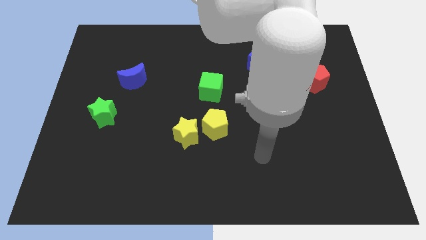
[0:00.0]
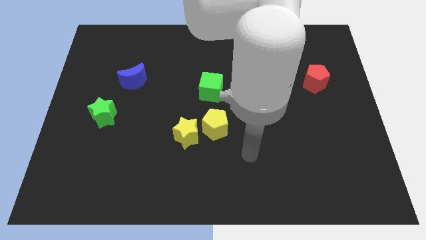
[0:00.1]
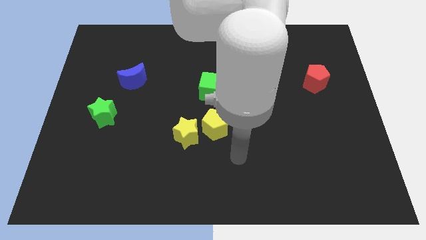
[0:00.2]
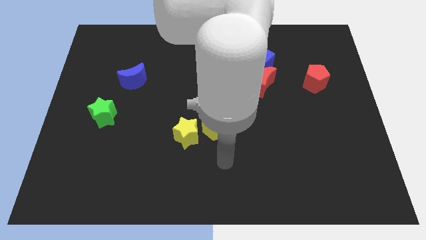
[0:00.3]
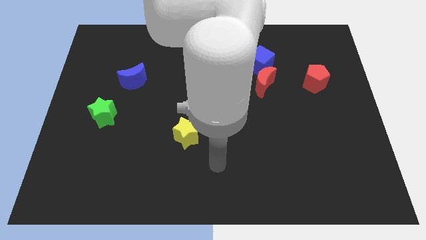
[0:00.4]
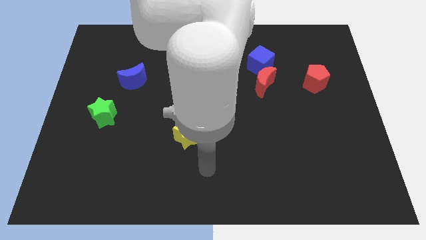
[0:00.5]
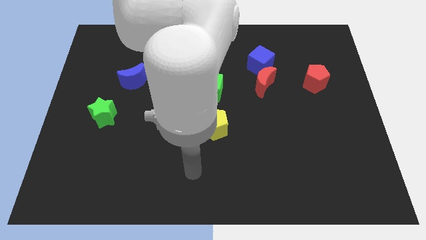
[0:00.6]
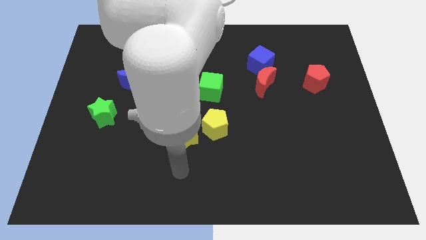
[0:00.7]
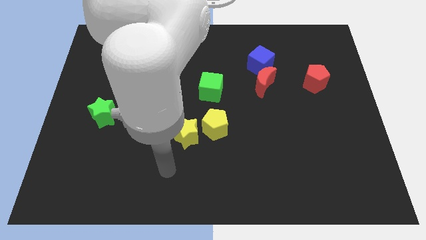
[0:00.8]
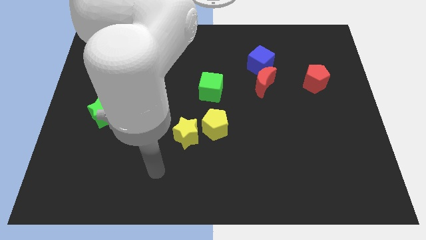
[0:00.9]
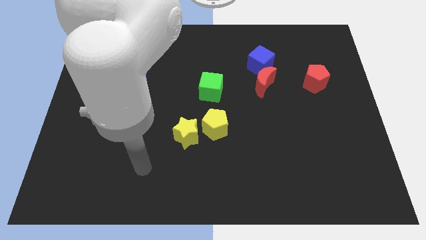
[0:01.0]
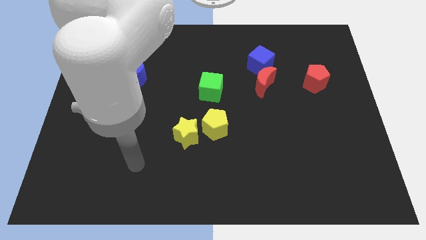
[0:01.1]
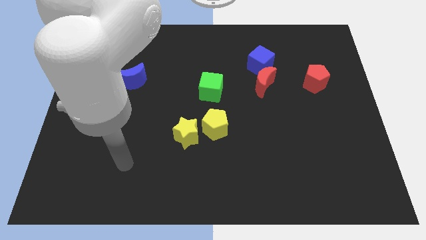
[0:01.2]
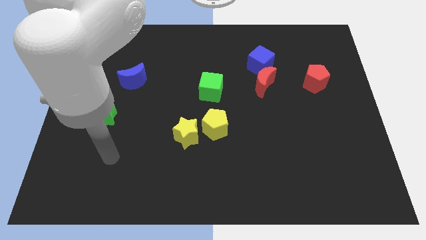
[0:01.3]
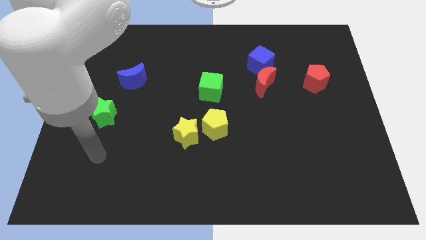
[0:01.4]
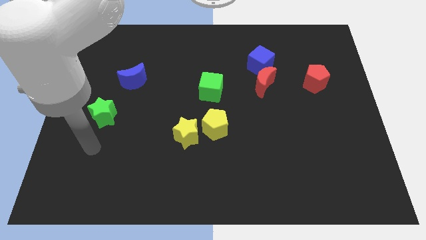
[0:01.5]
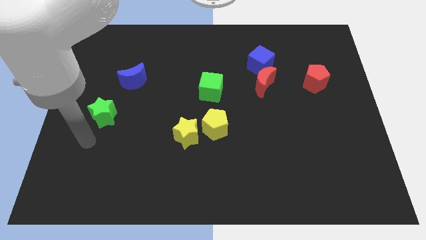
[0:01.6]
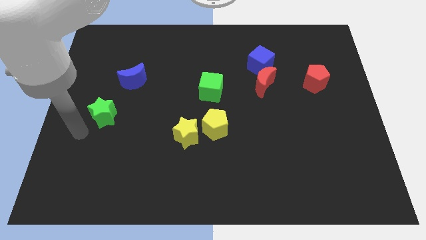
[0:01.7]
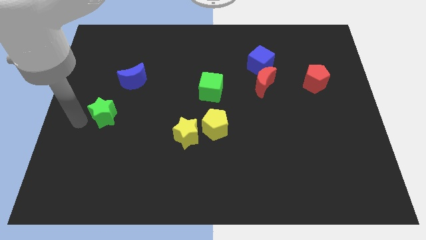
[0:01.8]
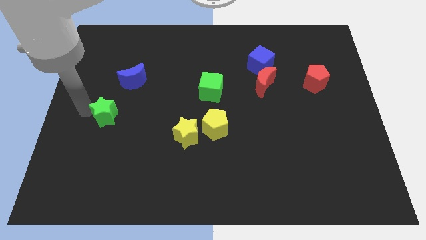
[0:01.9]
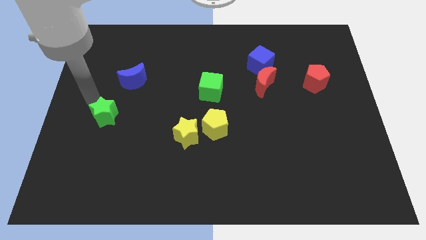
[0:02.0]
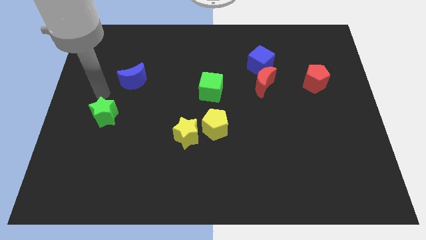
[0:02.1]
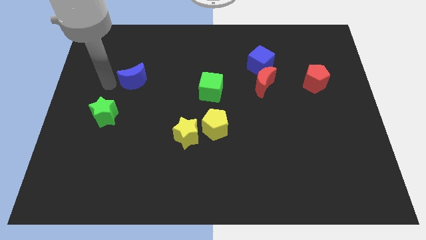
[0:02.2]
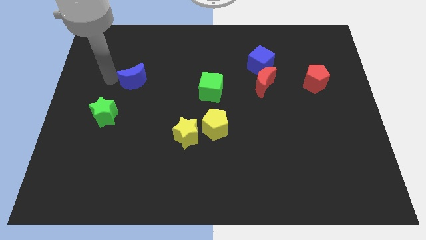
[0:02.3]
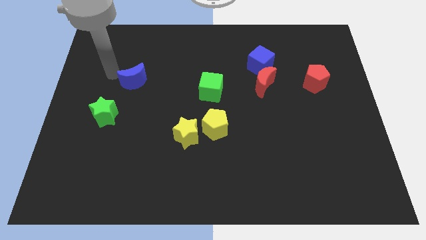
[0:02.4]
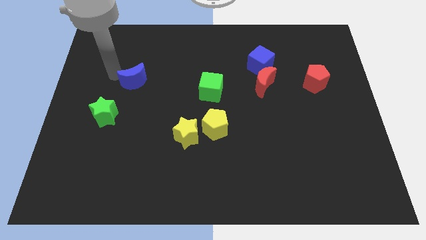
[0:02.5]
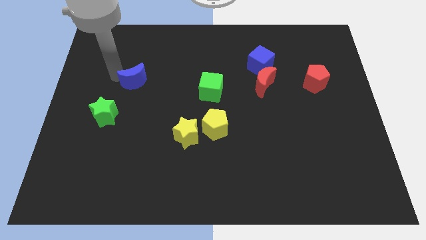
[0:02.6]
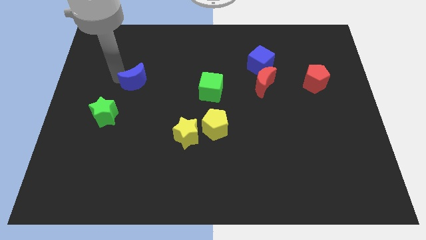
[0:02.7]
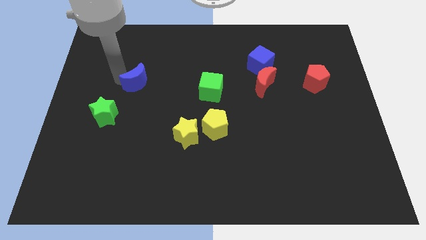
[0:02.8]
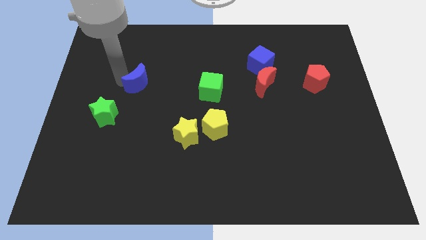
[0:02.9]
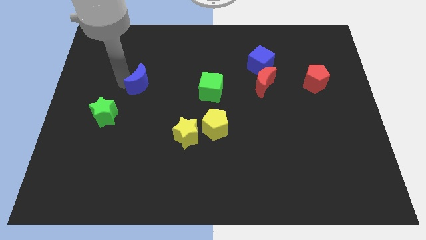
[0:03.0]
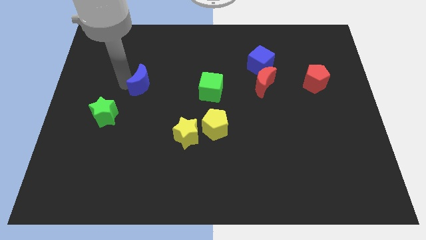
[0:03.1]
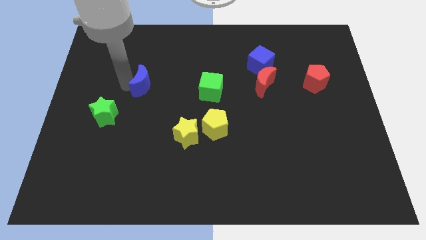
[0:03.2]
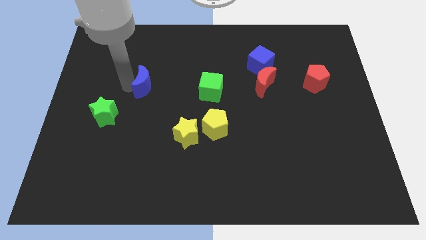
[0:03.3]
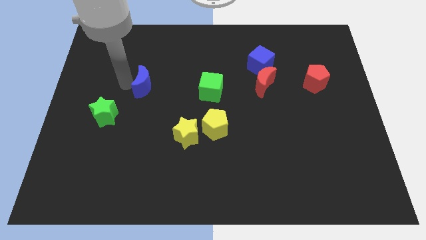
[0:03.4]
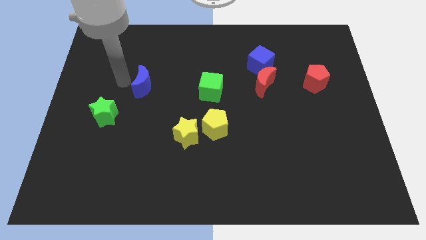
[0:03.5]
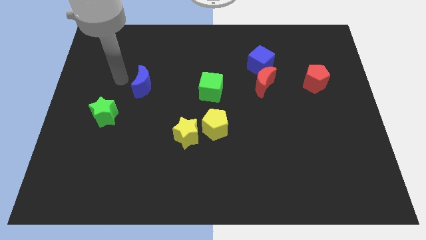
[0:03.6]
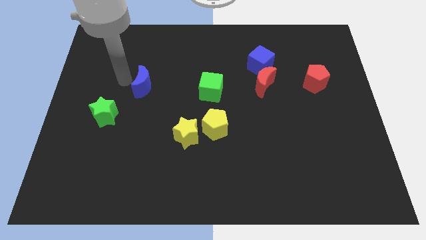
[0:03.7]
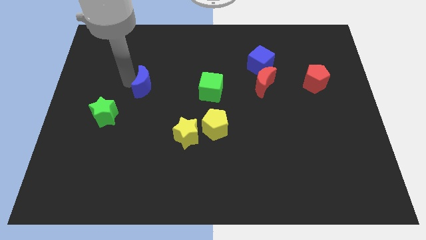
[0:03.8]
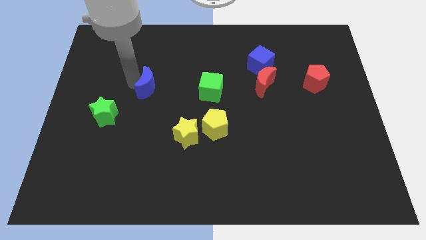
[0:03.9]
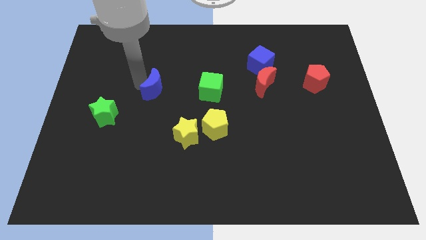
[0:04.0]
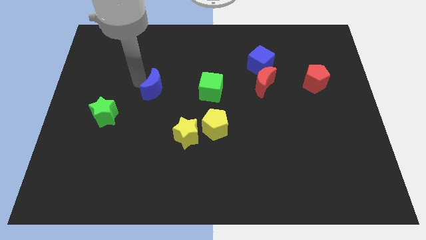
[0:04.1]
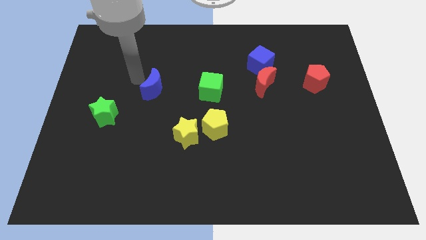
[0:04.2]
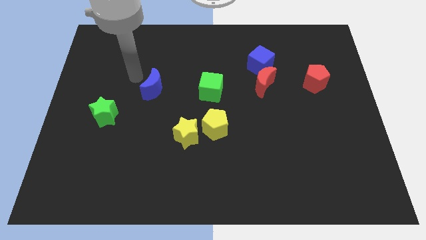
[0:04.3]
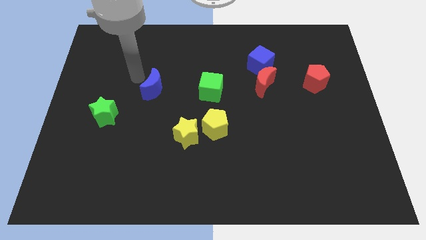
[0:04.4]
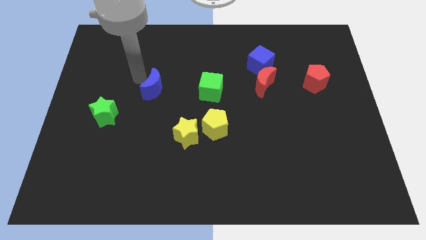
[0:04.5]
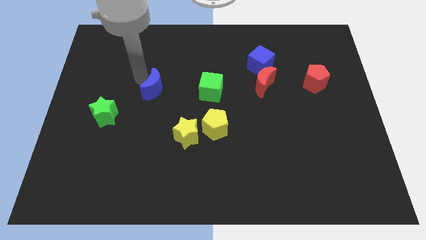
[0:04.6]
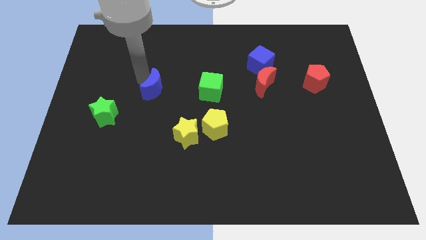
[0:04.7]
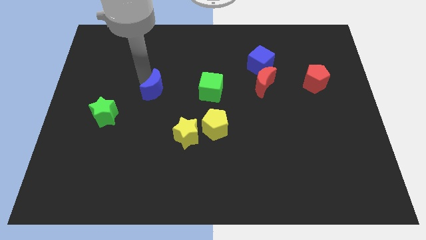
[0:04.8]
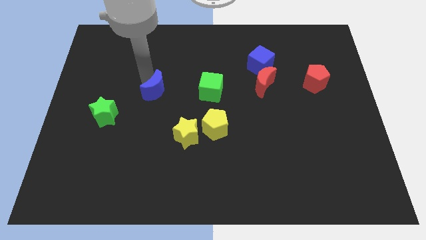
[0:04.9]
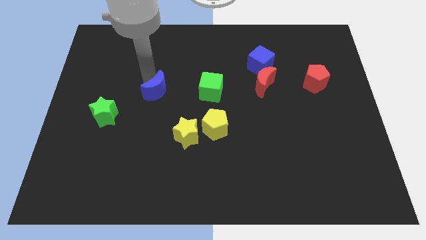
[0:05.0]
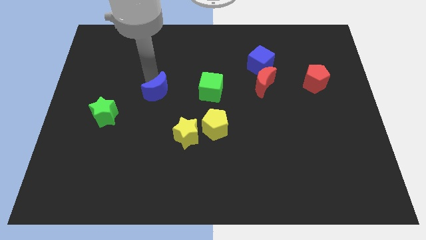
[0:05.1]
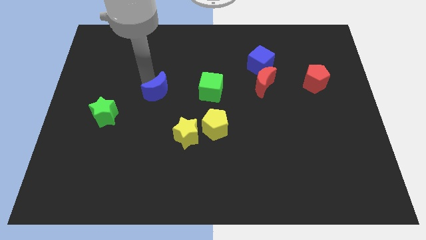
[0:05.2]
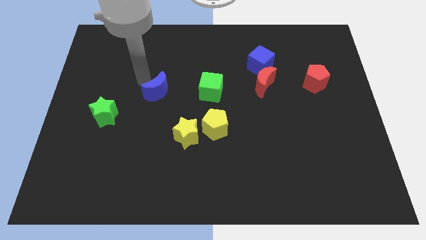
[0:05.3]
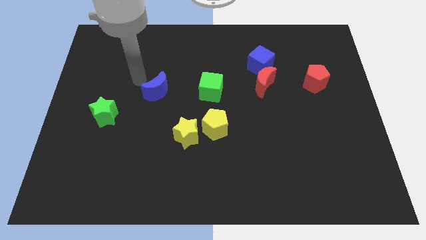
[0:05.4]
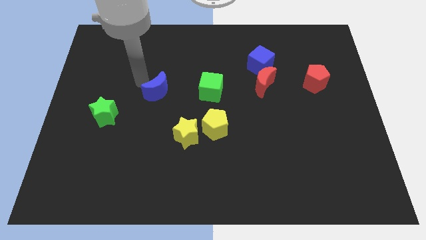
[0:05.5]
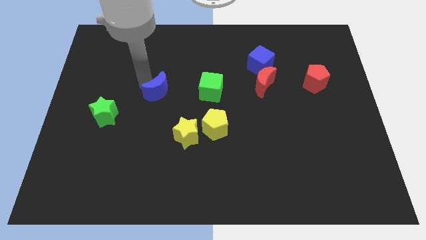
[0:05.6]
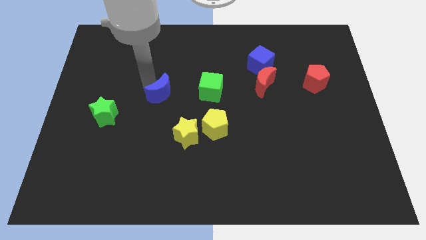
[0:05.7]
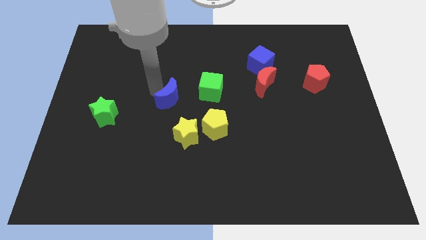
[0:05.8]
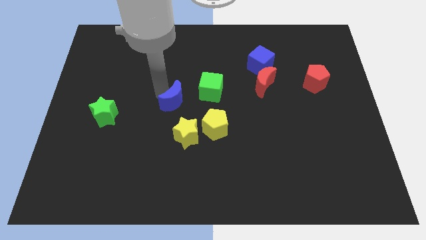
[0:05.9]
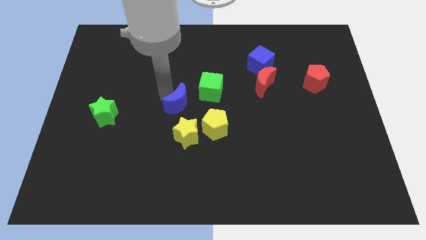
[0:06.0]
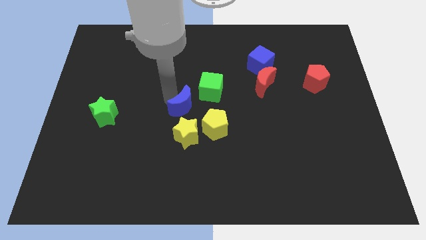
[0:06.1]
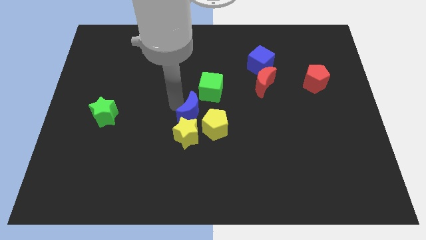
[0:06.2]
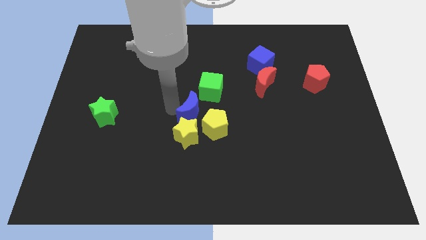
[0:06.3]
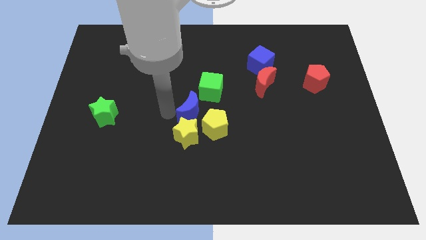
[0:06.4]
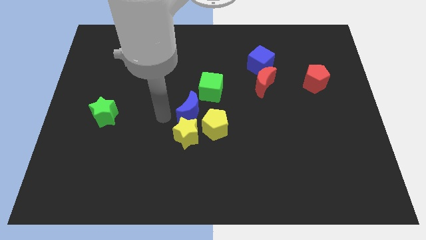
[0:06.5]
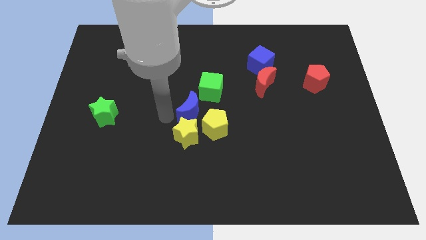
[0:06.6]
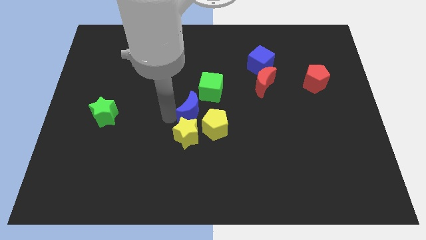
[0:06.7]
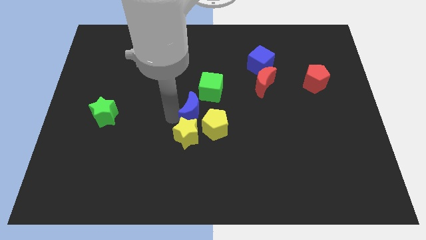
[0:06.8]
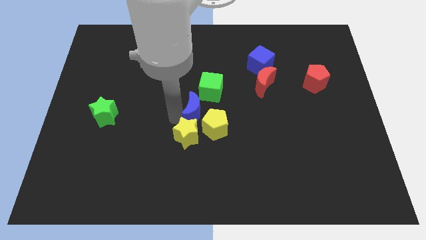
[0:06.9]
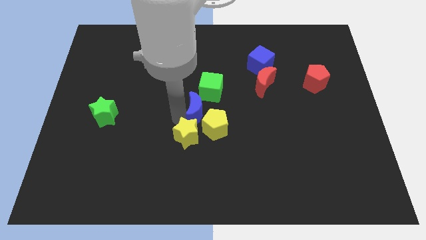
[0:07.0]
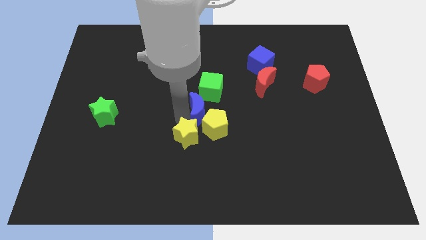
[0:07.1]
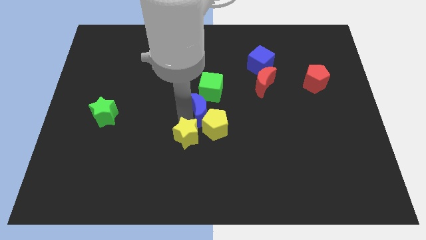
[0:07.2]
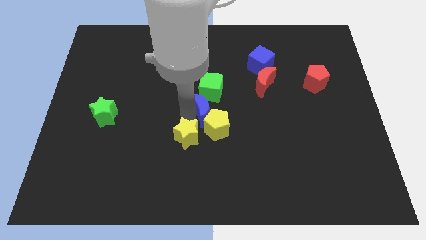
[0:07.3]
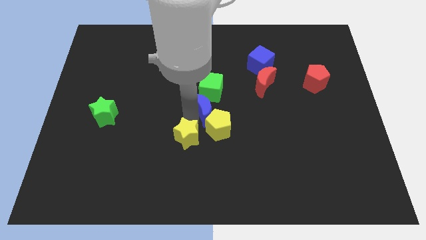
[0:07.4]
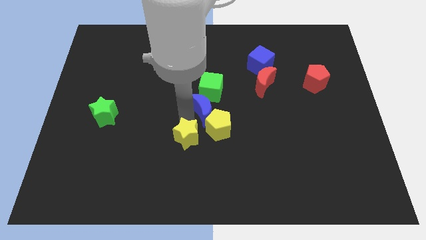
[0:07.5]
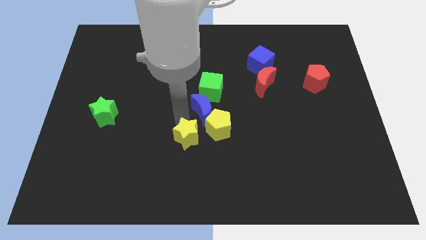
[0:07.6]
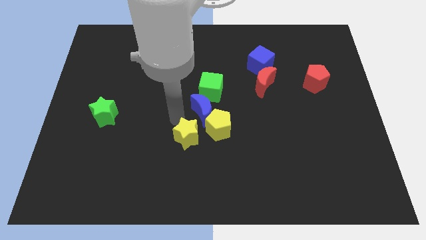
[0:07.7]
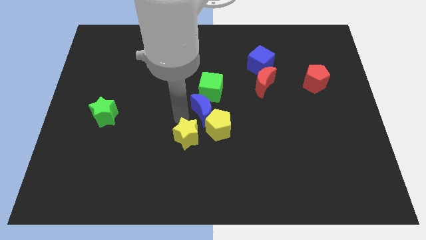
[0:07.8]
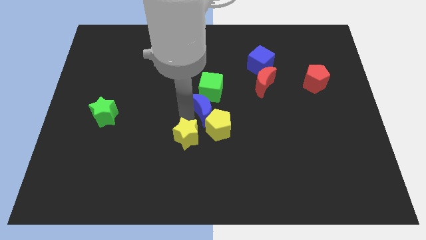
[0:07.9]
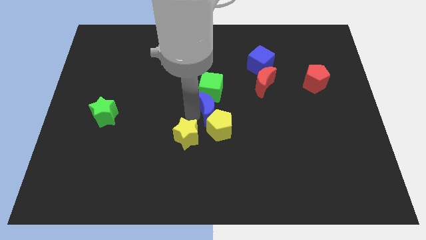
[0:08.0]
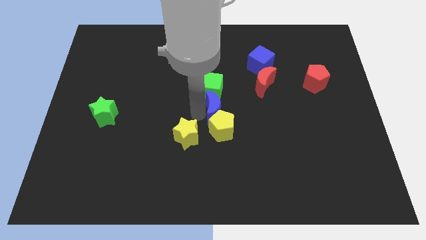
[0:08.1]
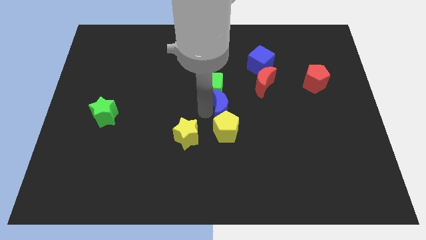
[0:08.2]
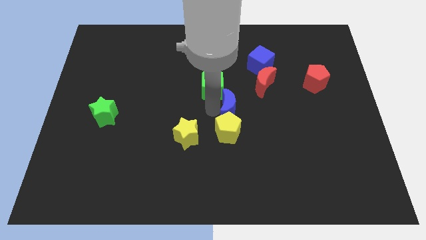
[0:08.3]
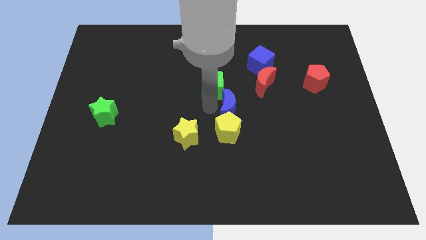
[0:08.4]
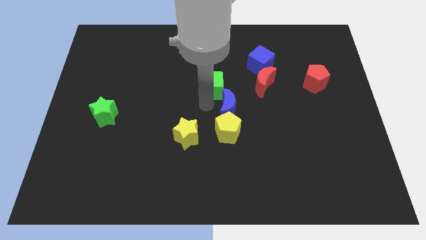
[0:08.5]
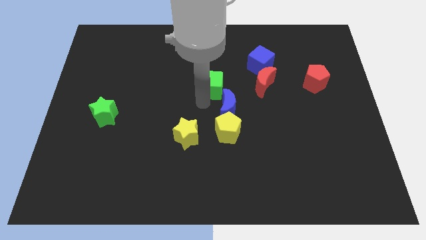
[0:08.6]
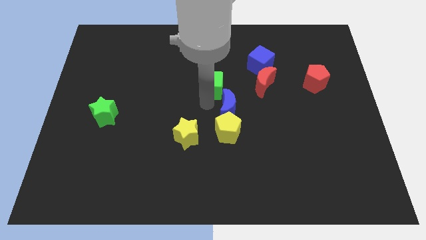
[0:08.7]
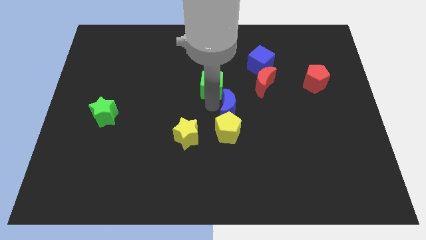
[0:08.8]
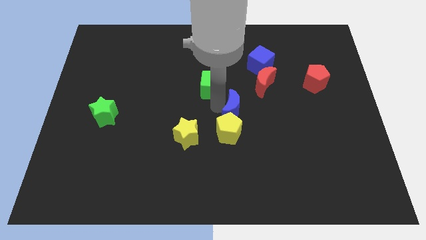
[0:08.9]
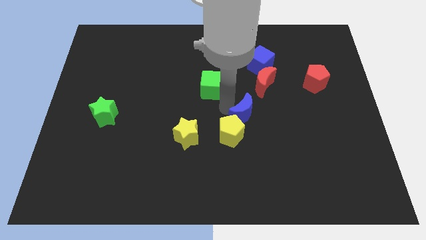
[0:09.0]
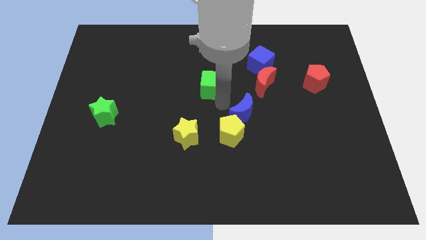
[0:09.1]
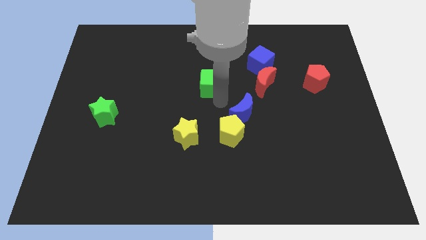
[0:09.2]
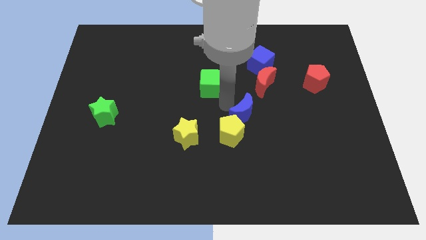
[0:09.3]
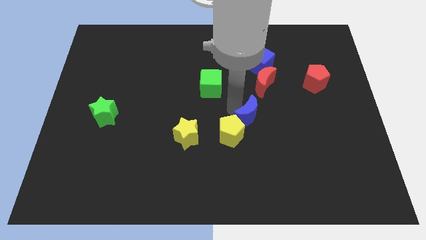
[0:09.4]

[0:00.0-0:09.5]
push the blue moon right of the yellow pentagon
